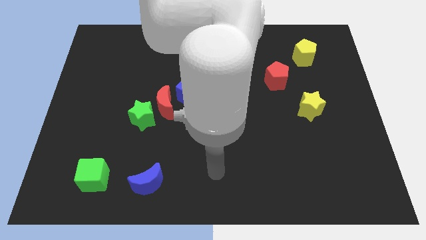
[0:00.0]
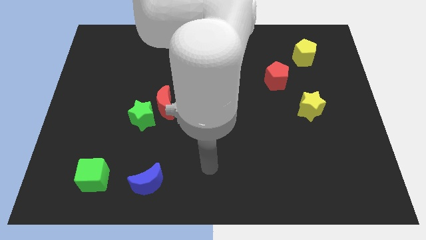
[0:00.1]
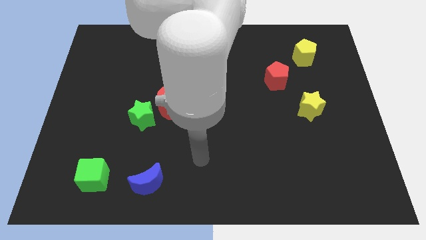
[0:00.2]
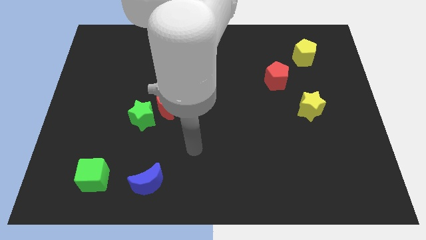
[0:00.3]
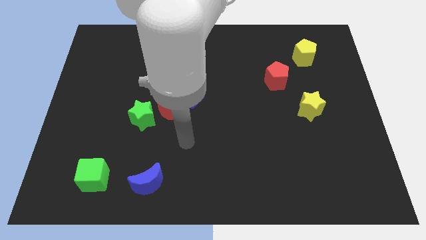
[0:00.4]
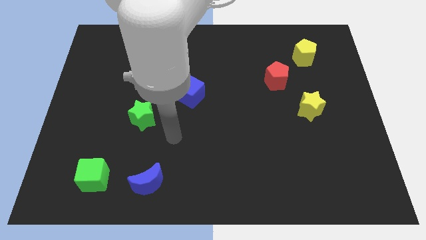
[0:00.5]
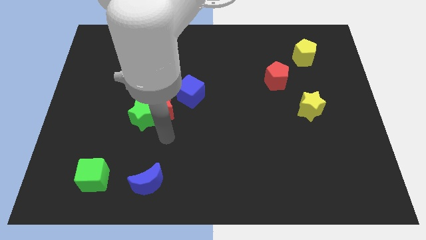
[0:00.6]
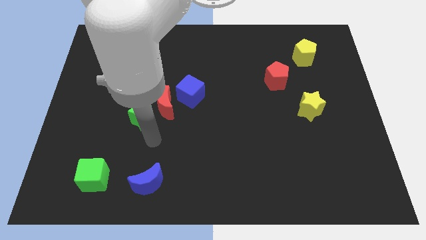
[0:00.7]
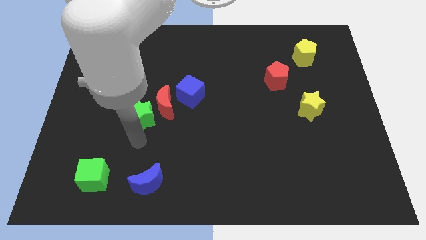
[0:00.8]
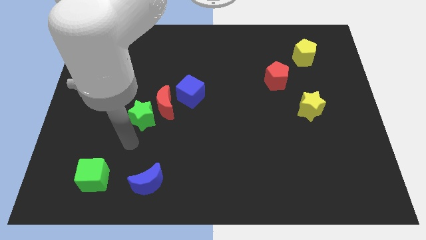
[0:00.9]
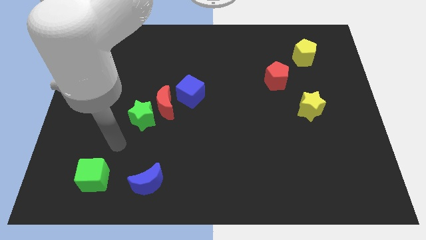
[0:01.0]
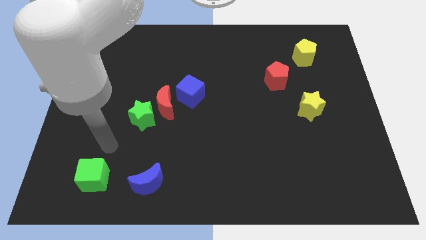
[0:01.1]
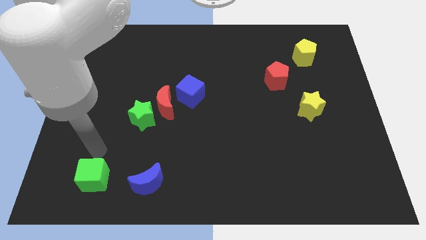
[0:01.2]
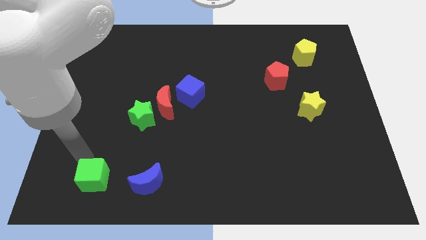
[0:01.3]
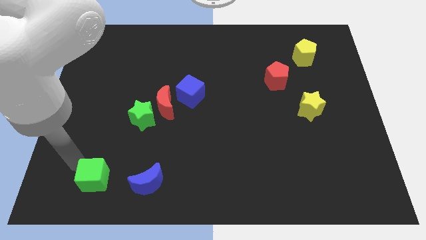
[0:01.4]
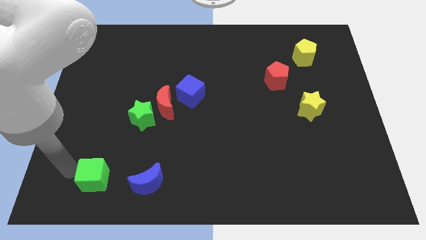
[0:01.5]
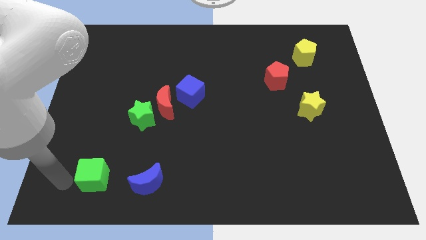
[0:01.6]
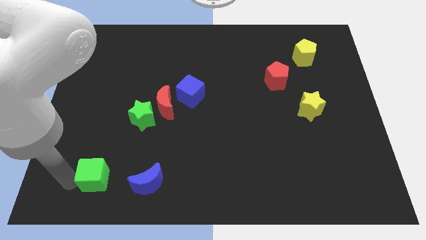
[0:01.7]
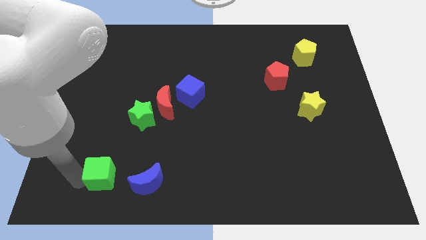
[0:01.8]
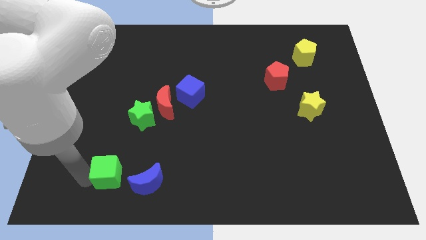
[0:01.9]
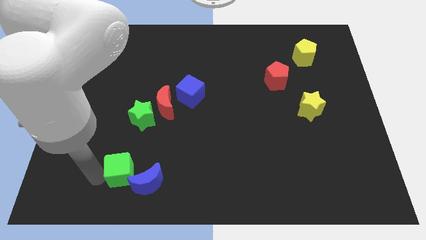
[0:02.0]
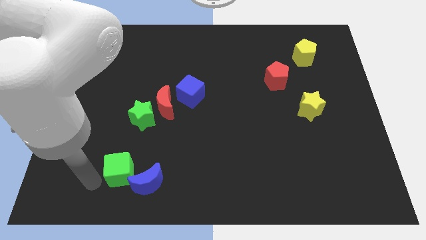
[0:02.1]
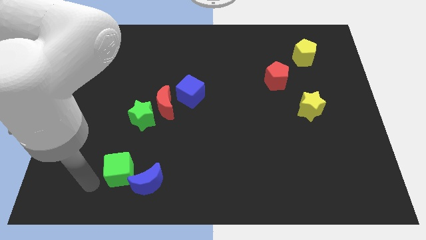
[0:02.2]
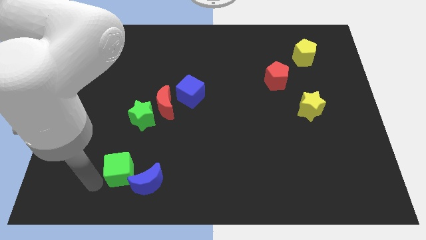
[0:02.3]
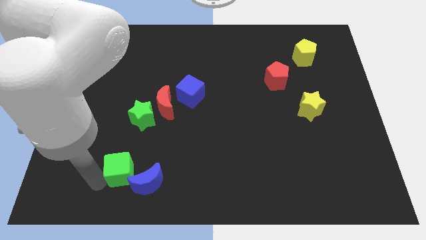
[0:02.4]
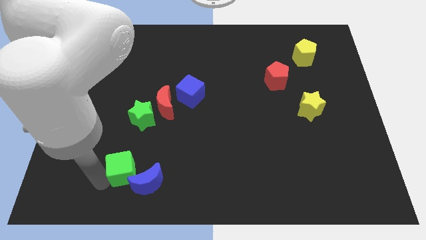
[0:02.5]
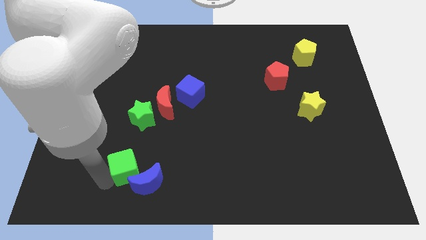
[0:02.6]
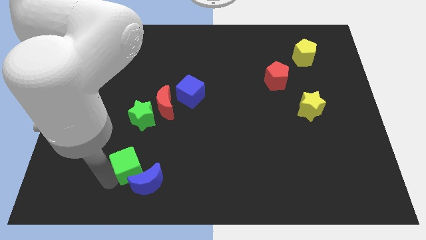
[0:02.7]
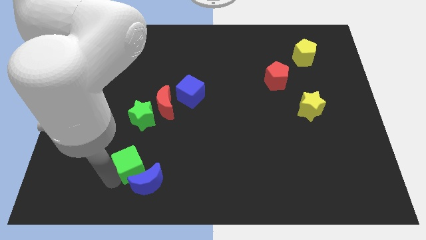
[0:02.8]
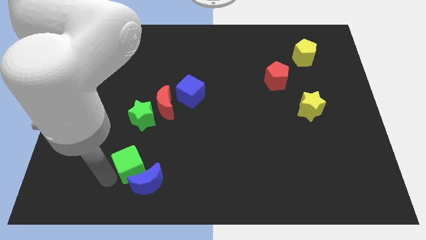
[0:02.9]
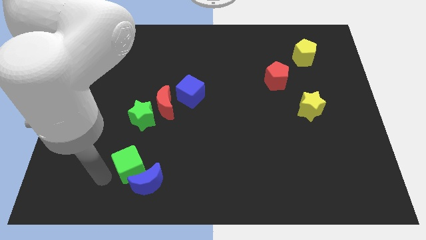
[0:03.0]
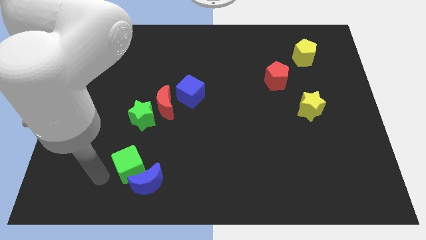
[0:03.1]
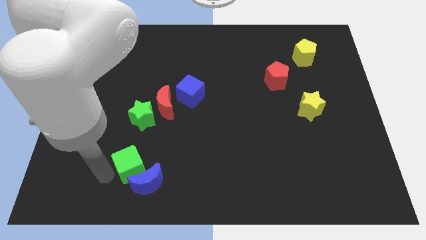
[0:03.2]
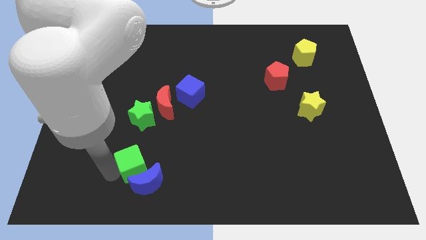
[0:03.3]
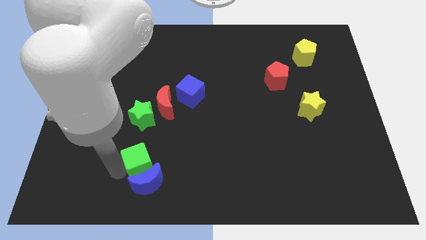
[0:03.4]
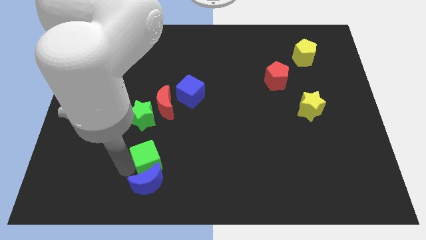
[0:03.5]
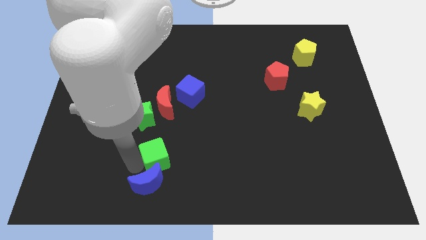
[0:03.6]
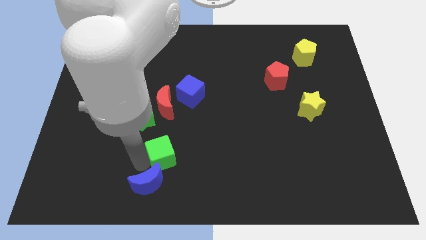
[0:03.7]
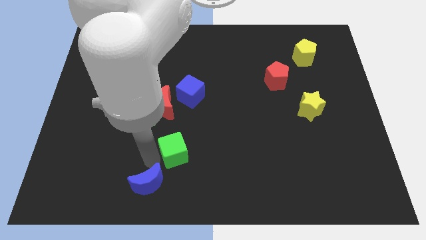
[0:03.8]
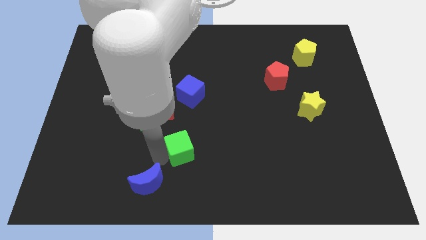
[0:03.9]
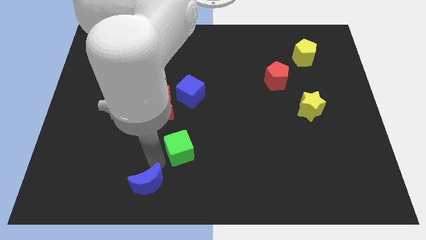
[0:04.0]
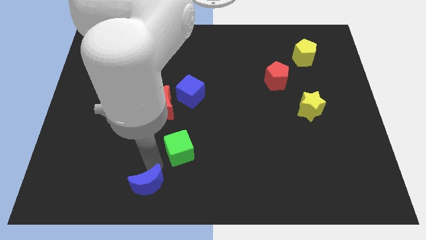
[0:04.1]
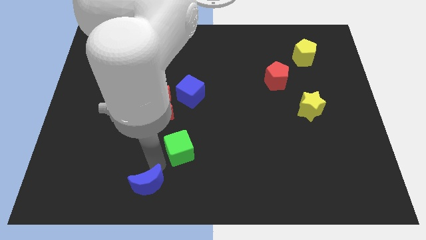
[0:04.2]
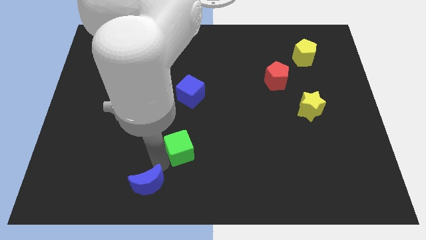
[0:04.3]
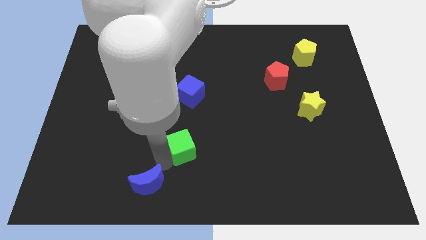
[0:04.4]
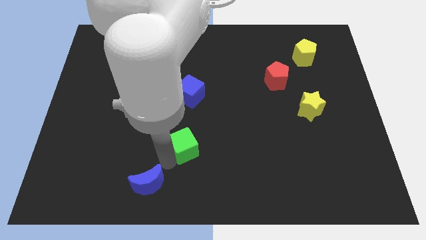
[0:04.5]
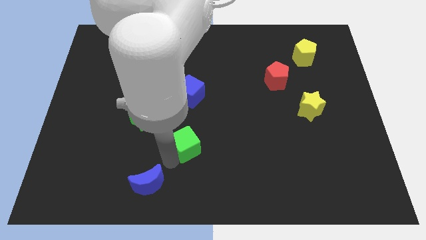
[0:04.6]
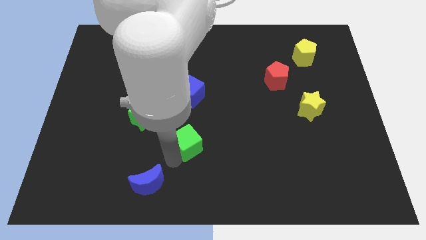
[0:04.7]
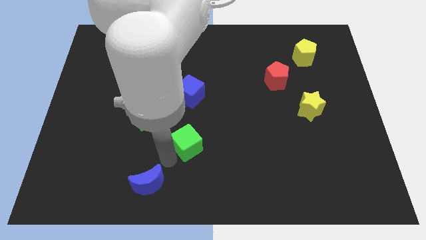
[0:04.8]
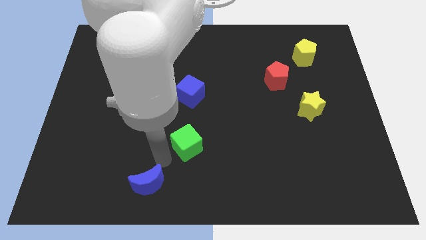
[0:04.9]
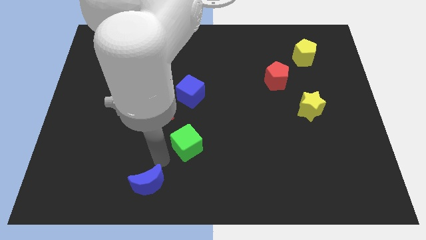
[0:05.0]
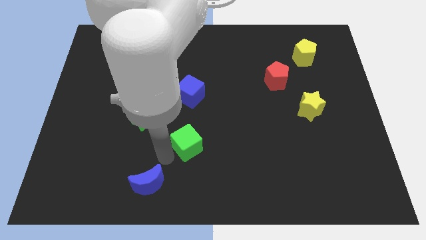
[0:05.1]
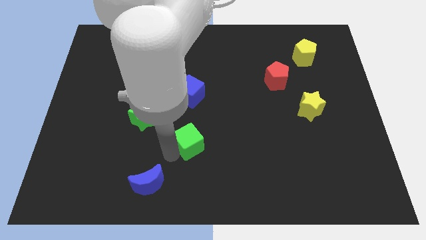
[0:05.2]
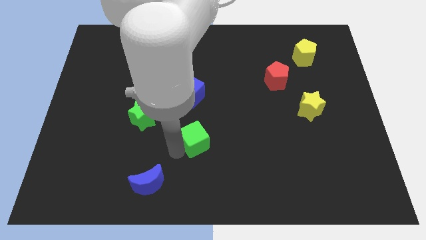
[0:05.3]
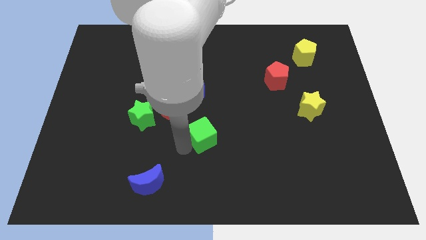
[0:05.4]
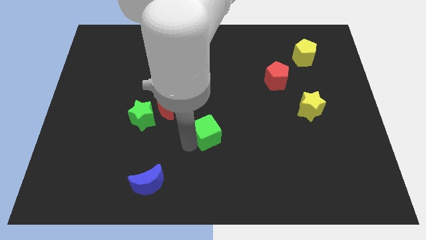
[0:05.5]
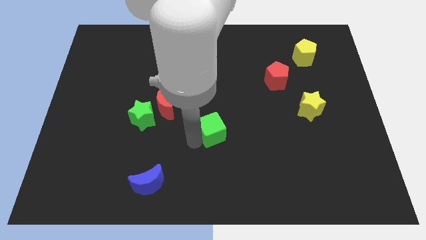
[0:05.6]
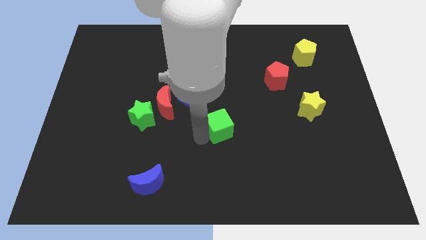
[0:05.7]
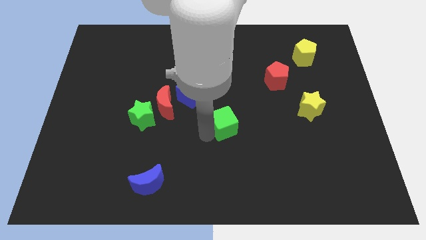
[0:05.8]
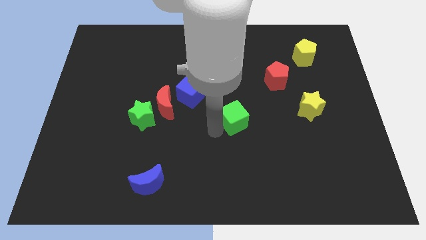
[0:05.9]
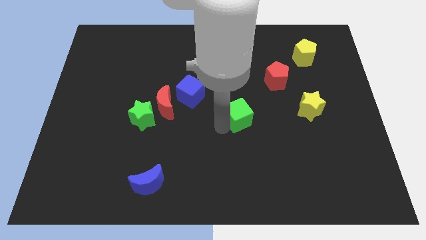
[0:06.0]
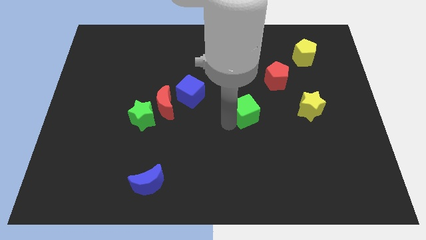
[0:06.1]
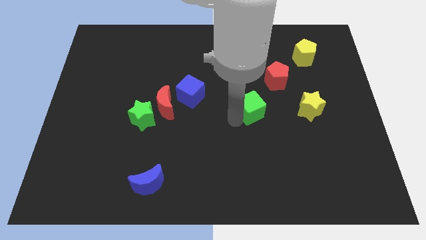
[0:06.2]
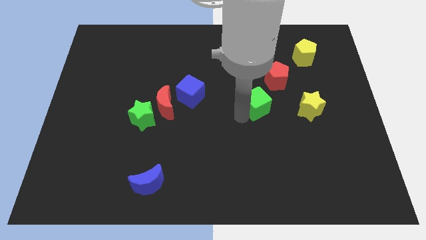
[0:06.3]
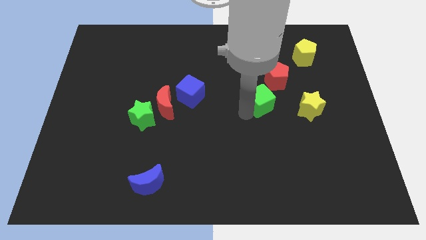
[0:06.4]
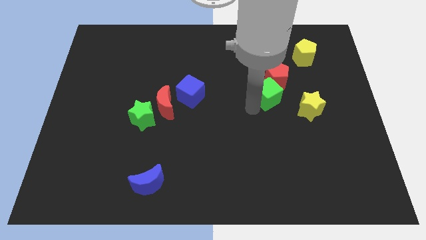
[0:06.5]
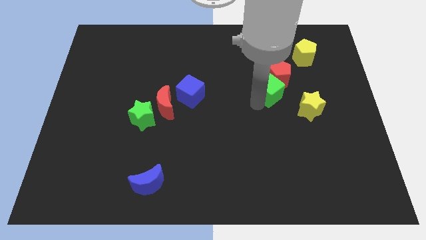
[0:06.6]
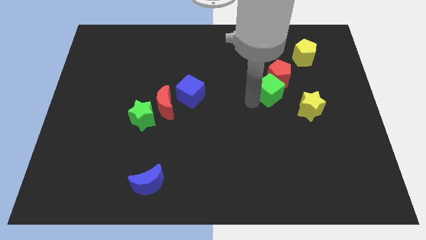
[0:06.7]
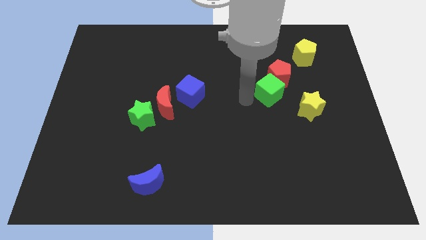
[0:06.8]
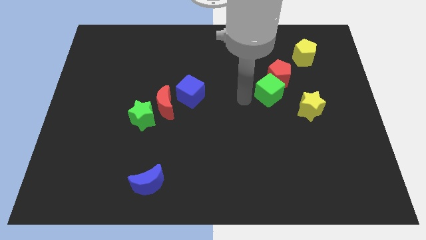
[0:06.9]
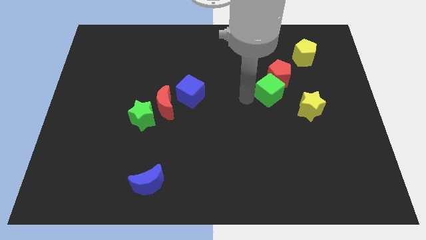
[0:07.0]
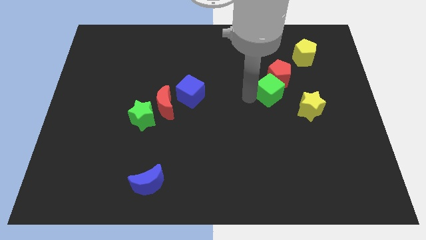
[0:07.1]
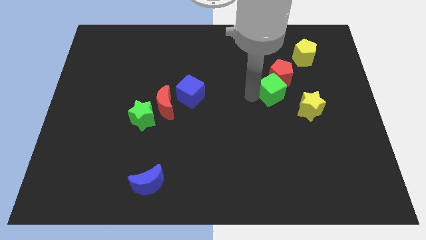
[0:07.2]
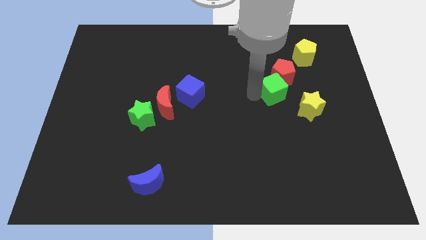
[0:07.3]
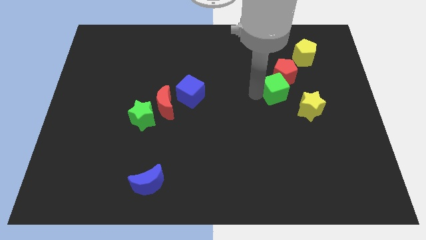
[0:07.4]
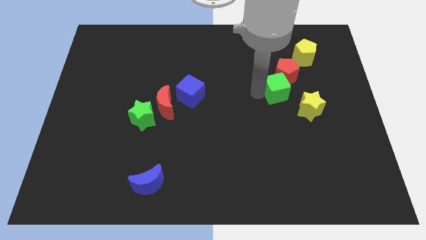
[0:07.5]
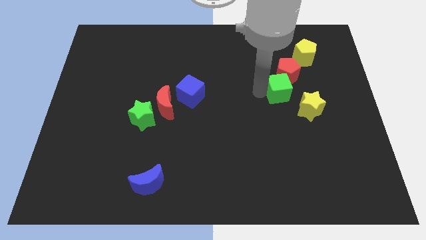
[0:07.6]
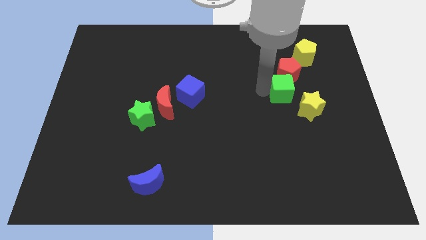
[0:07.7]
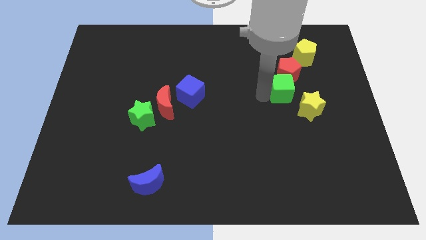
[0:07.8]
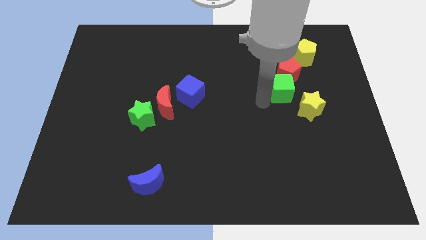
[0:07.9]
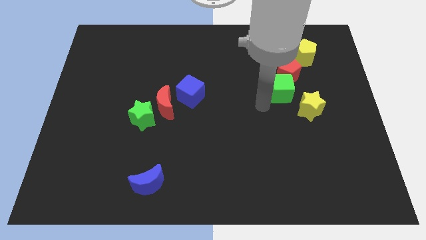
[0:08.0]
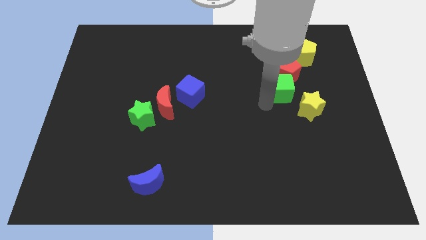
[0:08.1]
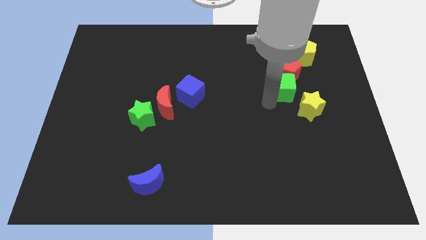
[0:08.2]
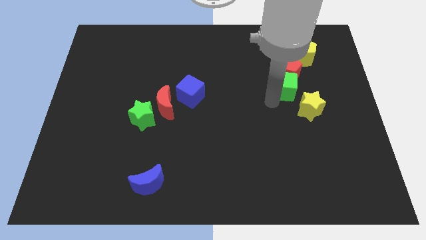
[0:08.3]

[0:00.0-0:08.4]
slide the green cube to the top side of the yellow star

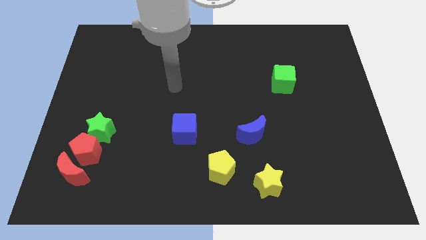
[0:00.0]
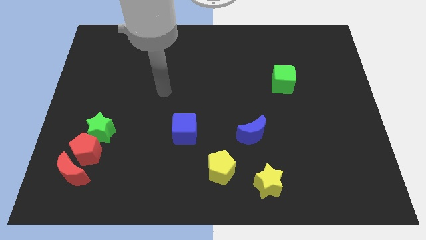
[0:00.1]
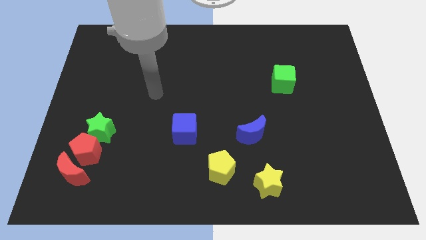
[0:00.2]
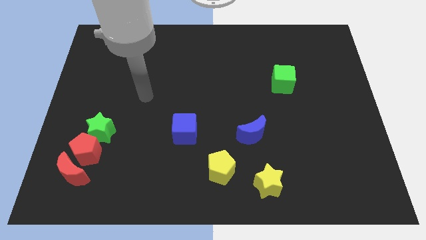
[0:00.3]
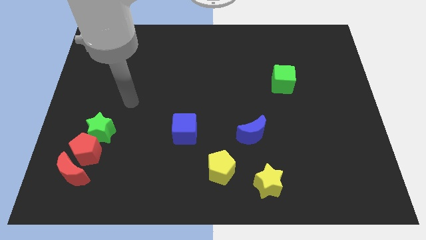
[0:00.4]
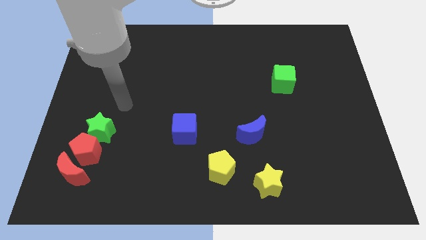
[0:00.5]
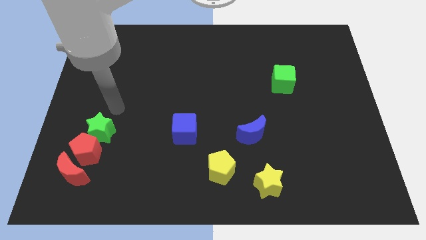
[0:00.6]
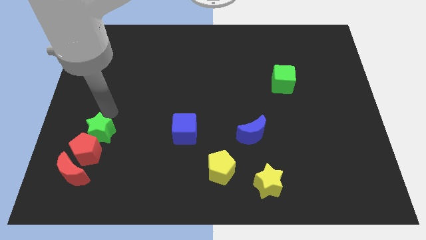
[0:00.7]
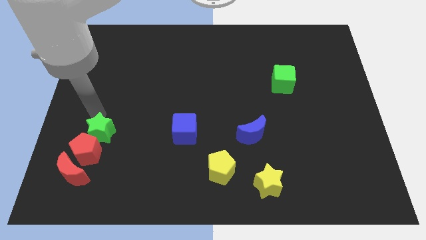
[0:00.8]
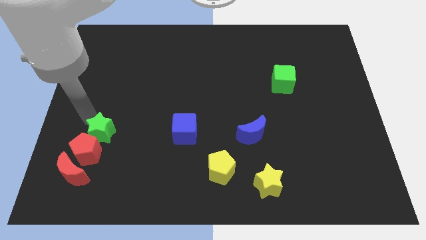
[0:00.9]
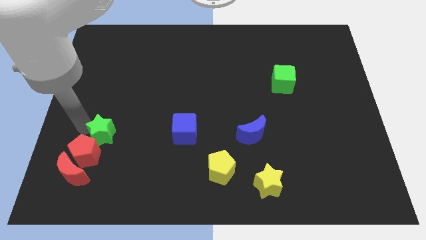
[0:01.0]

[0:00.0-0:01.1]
move the red moon diagonally down and to the right of the red pentagon
